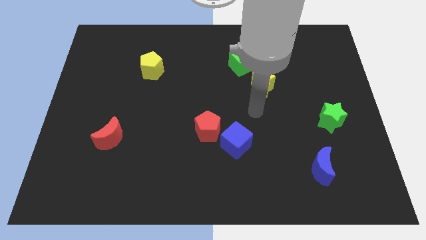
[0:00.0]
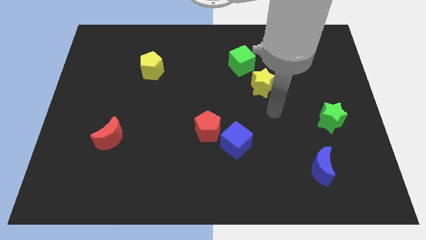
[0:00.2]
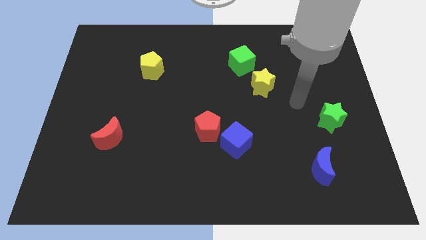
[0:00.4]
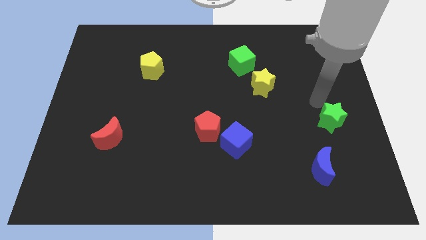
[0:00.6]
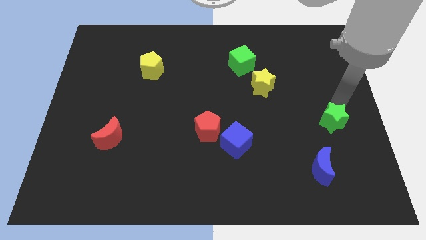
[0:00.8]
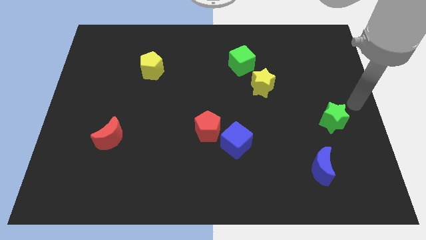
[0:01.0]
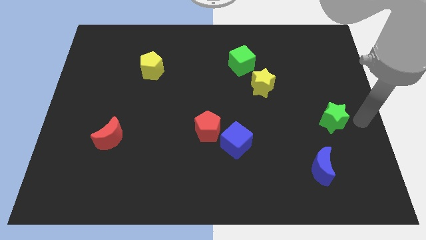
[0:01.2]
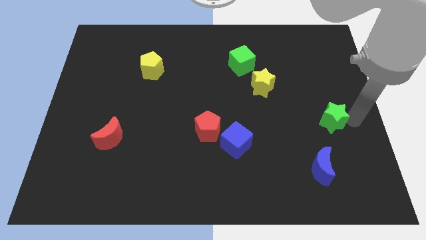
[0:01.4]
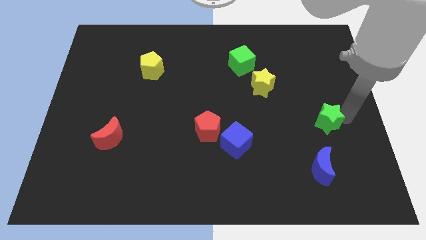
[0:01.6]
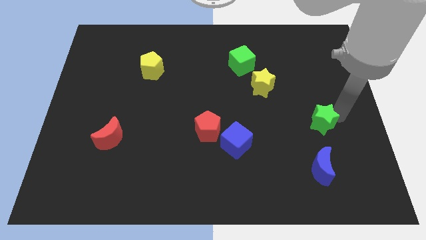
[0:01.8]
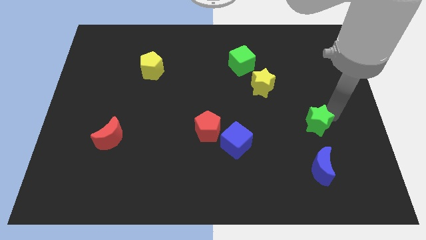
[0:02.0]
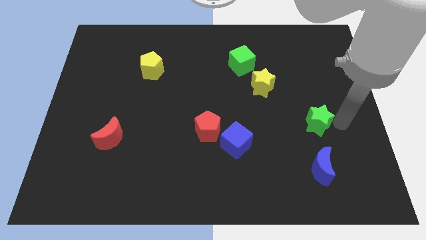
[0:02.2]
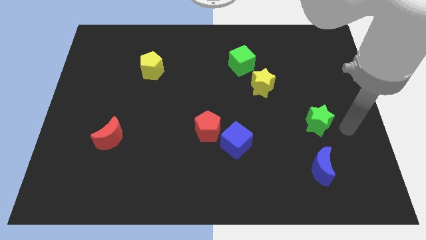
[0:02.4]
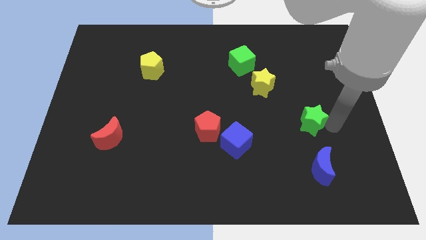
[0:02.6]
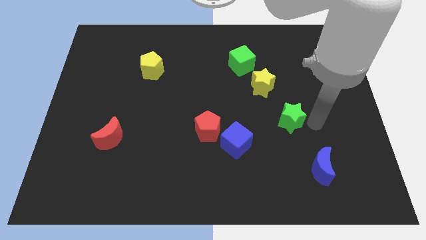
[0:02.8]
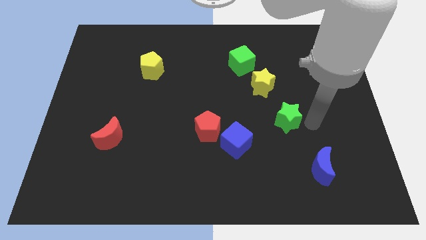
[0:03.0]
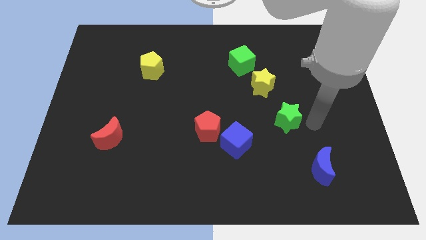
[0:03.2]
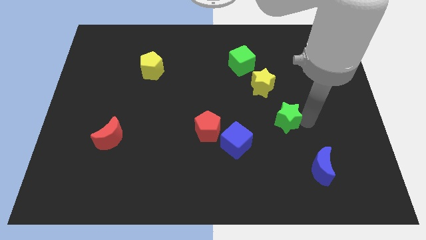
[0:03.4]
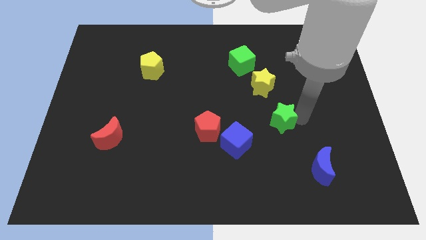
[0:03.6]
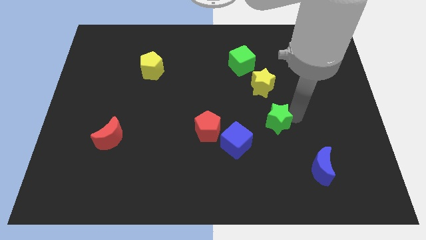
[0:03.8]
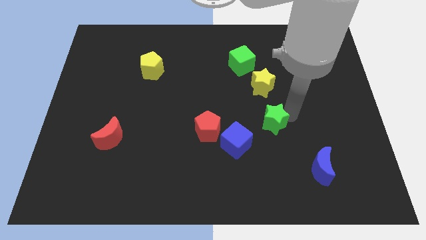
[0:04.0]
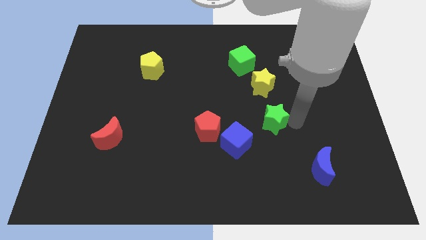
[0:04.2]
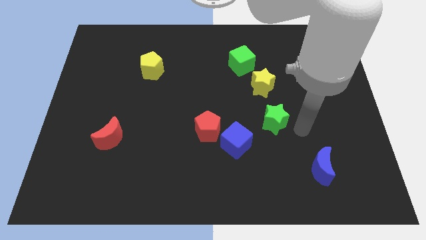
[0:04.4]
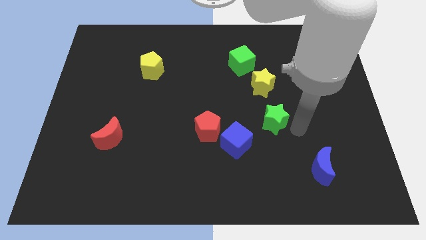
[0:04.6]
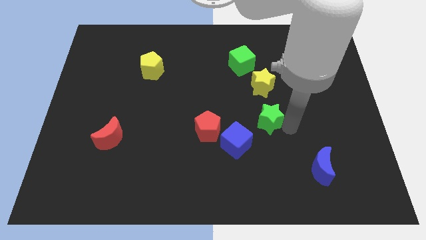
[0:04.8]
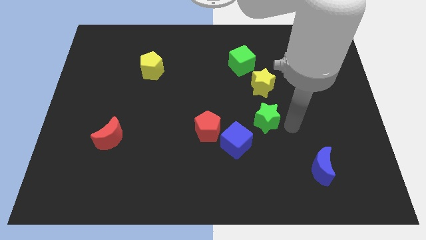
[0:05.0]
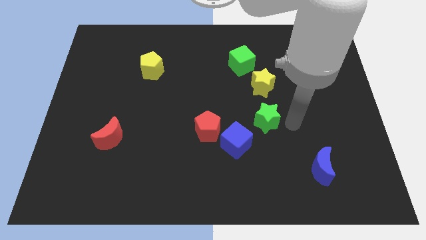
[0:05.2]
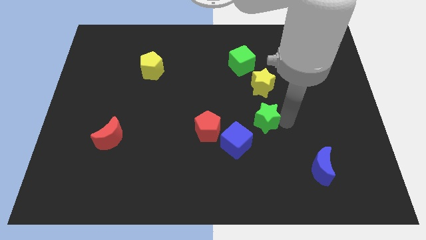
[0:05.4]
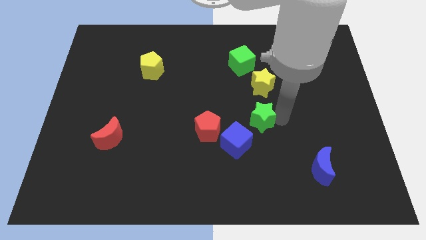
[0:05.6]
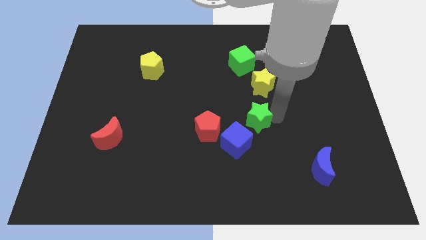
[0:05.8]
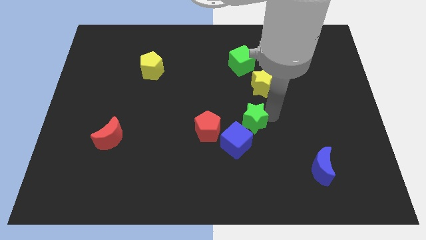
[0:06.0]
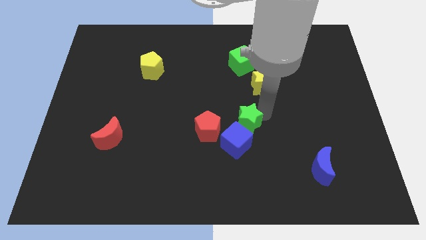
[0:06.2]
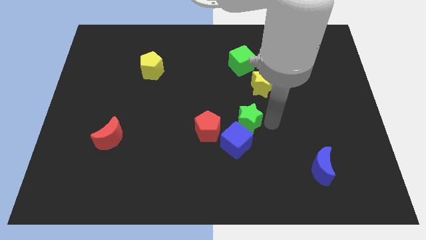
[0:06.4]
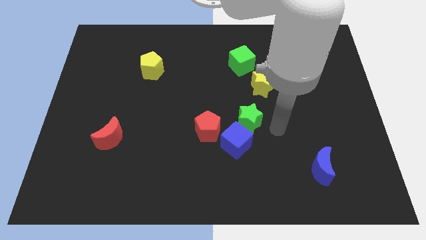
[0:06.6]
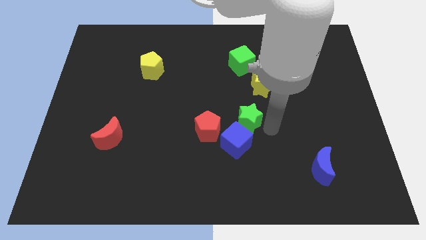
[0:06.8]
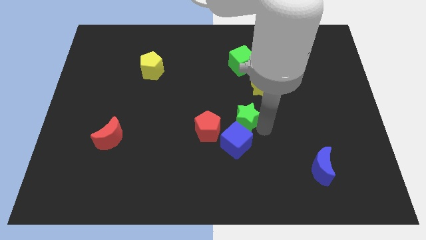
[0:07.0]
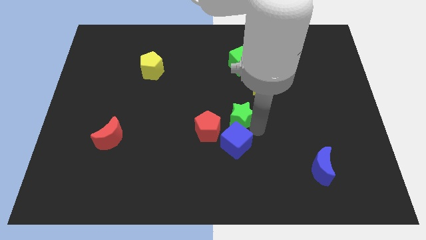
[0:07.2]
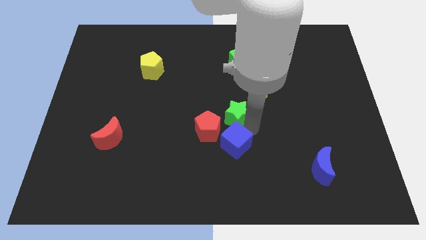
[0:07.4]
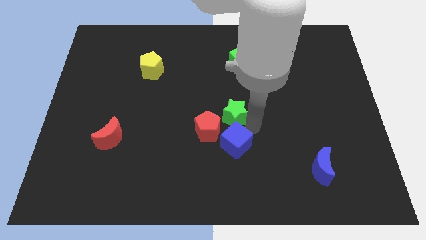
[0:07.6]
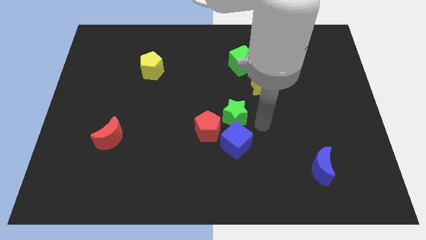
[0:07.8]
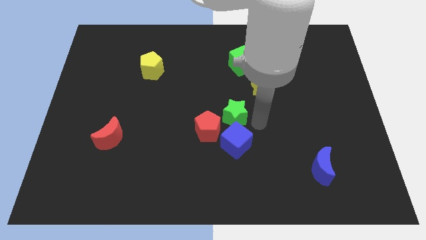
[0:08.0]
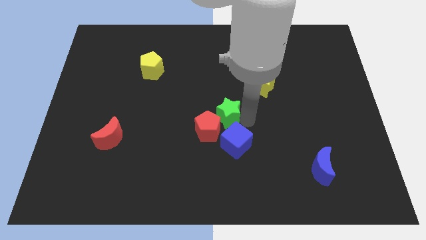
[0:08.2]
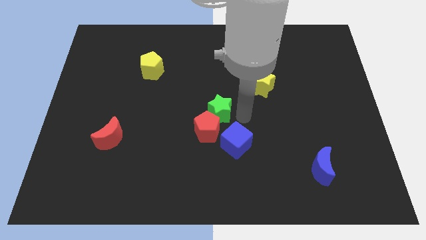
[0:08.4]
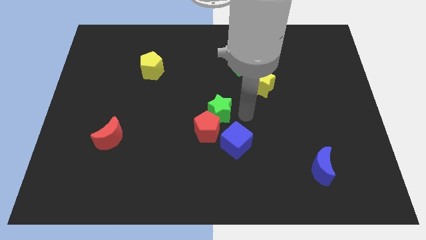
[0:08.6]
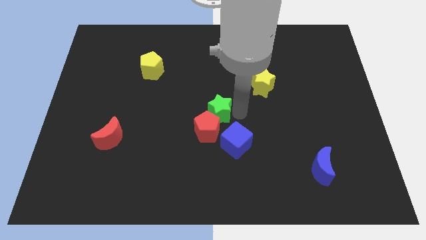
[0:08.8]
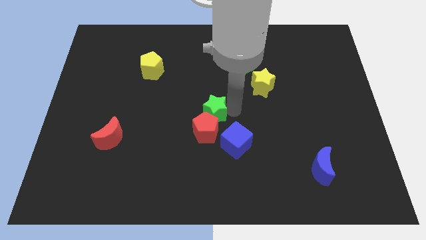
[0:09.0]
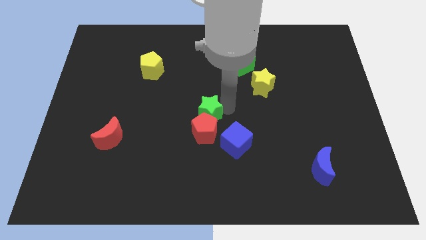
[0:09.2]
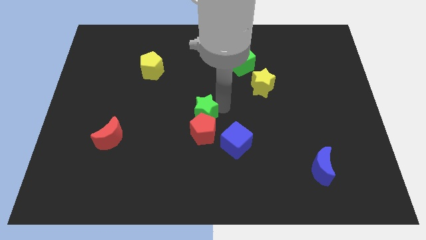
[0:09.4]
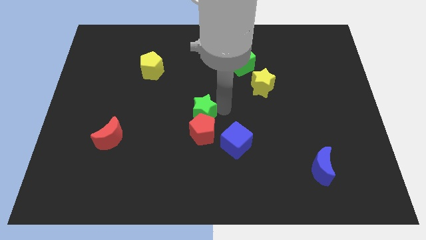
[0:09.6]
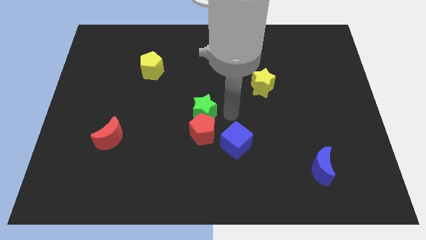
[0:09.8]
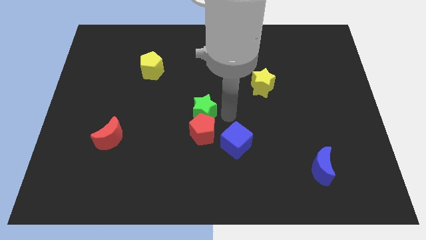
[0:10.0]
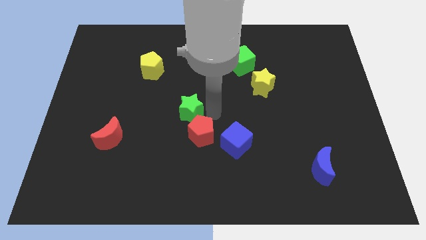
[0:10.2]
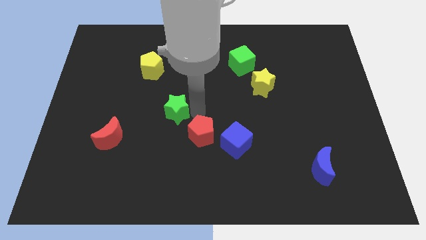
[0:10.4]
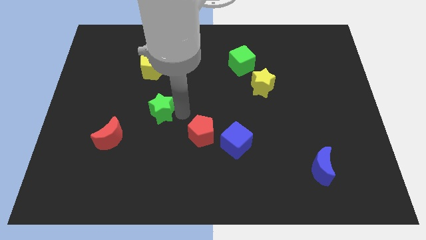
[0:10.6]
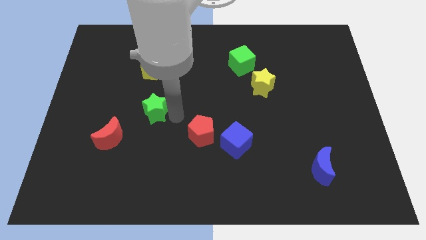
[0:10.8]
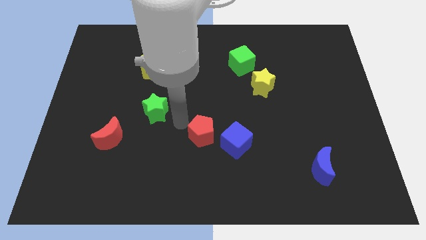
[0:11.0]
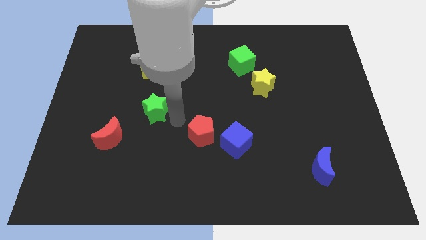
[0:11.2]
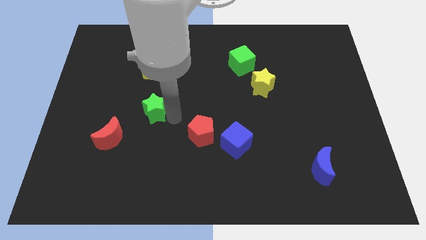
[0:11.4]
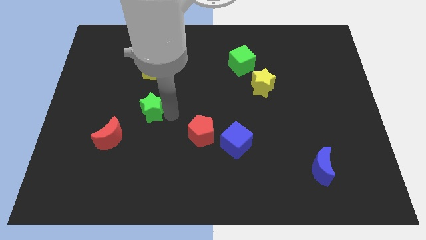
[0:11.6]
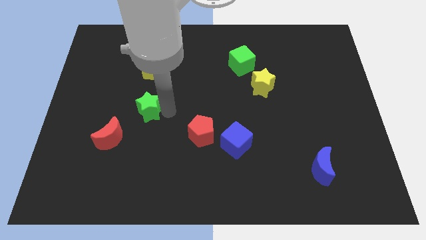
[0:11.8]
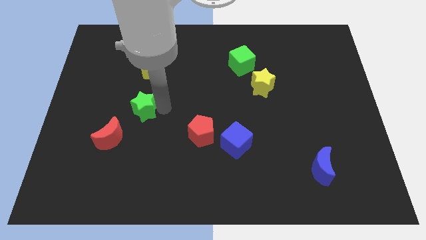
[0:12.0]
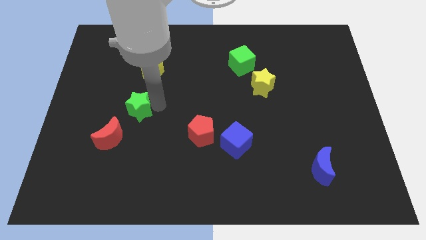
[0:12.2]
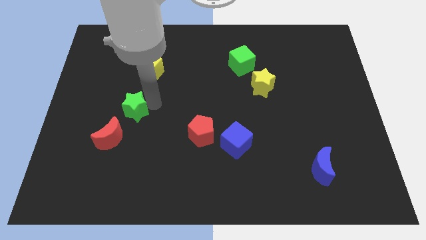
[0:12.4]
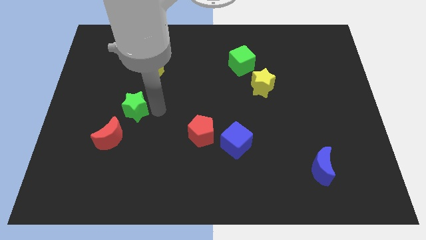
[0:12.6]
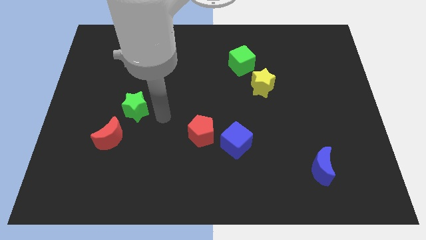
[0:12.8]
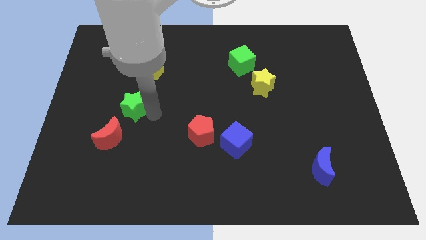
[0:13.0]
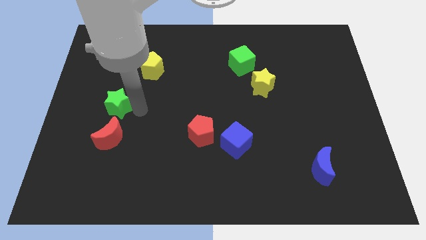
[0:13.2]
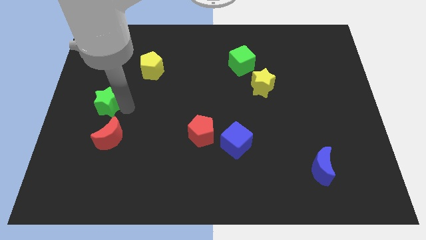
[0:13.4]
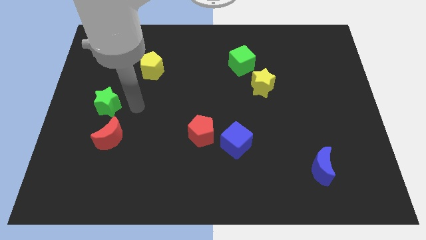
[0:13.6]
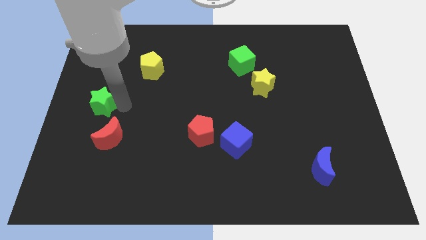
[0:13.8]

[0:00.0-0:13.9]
put the green star to the left side of the board
